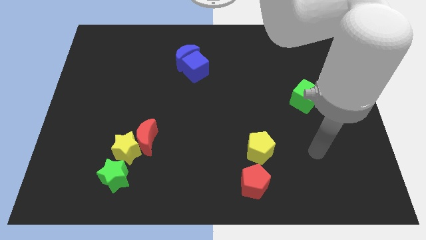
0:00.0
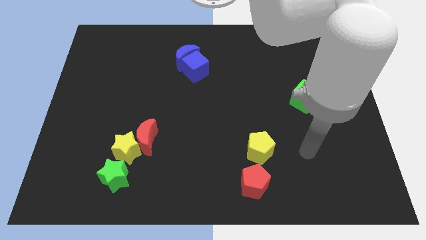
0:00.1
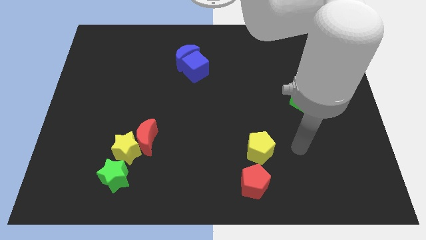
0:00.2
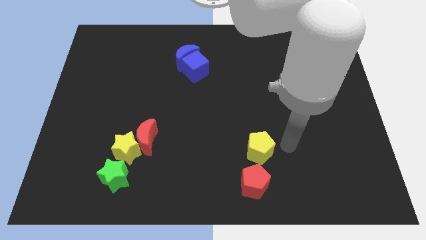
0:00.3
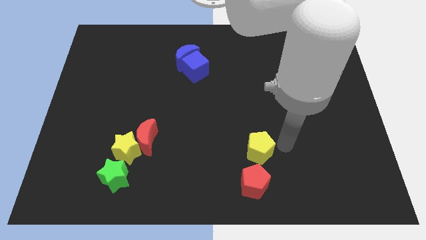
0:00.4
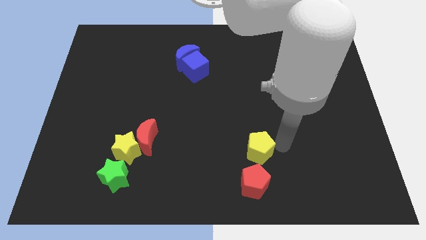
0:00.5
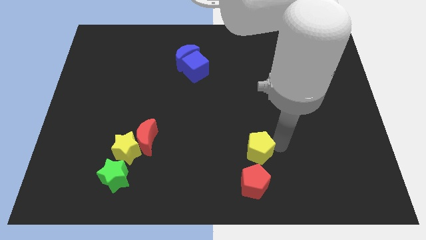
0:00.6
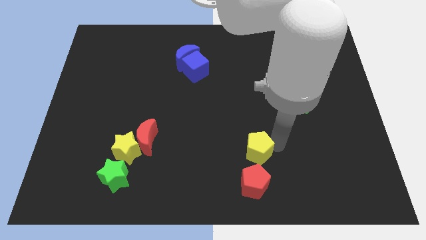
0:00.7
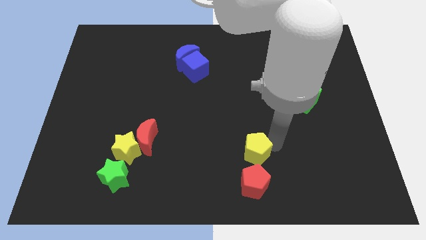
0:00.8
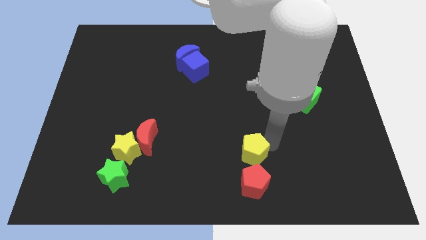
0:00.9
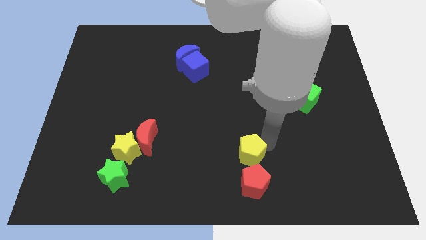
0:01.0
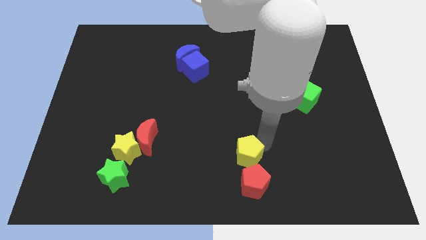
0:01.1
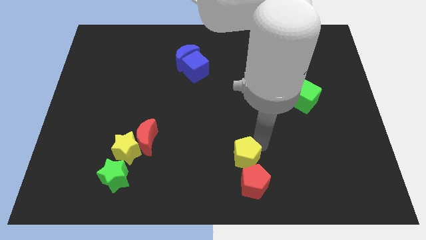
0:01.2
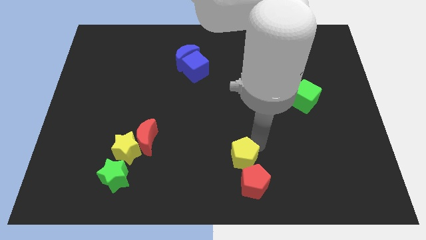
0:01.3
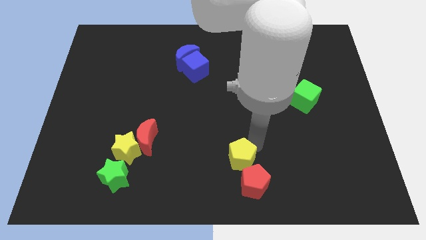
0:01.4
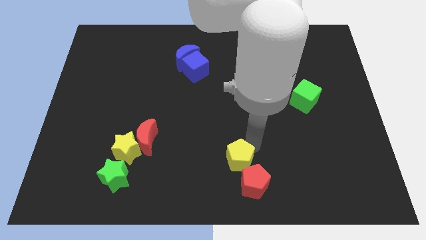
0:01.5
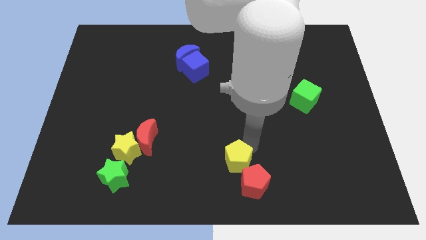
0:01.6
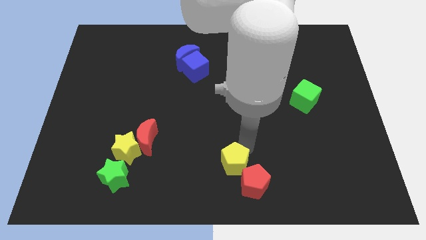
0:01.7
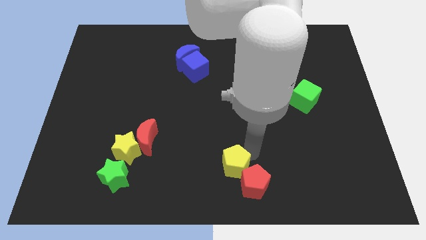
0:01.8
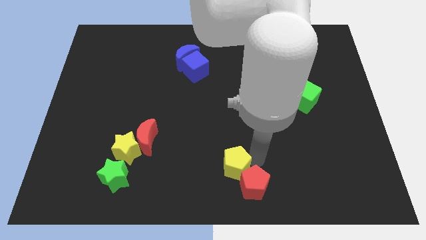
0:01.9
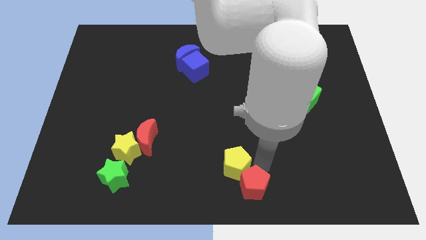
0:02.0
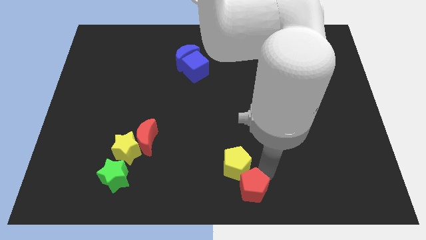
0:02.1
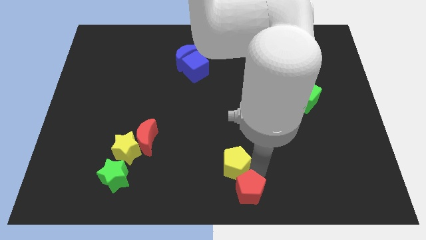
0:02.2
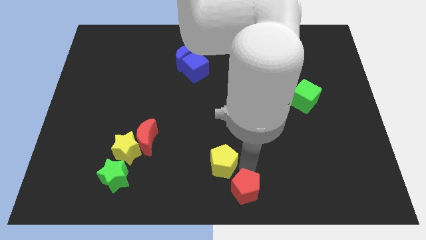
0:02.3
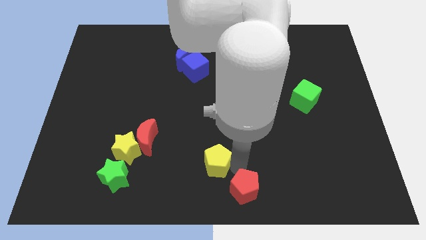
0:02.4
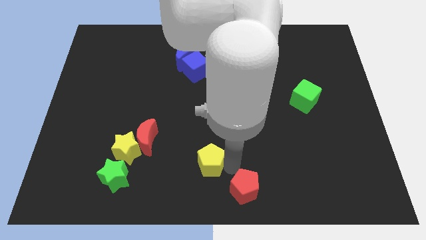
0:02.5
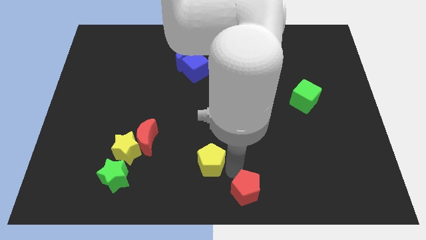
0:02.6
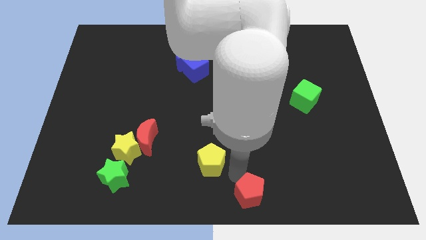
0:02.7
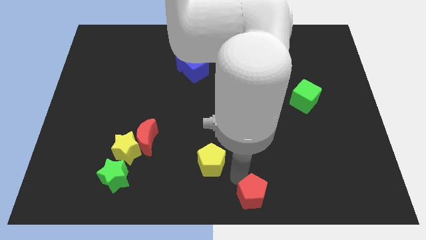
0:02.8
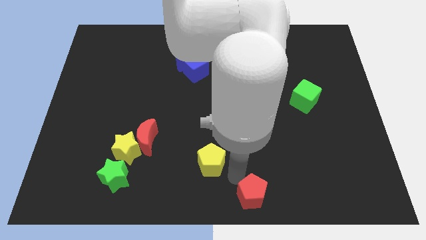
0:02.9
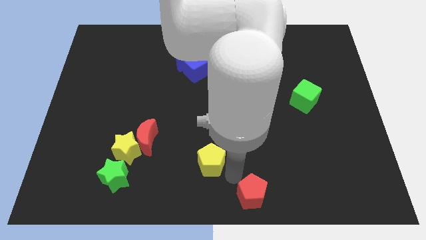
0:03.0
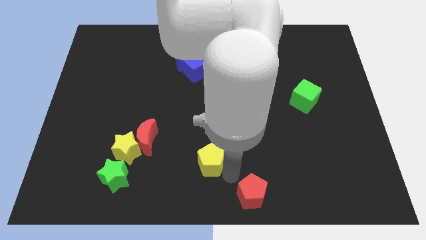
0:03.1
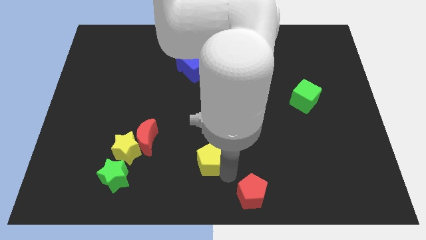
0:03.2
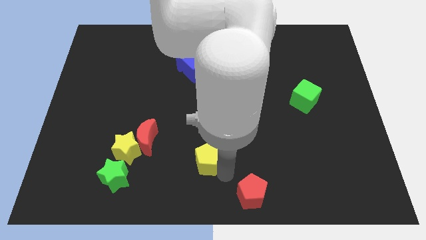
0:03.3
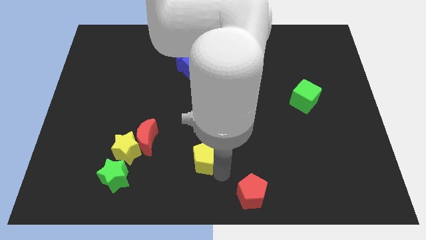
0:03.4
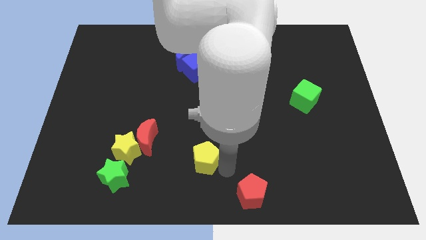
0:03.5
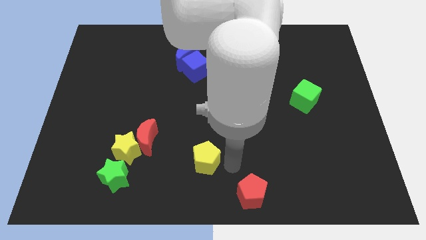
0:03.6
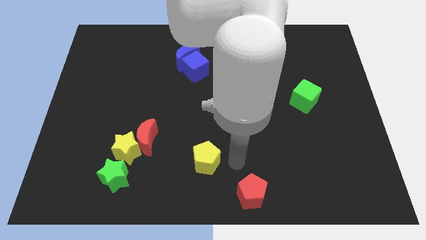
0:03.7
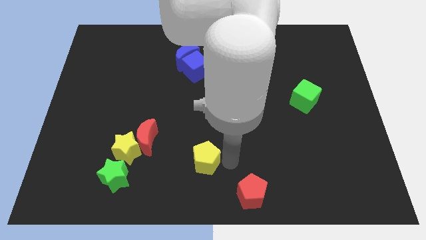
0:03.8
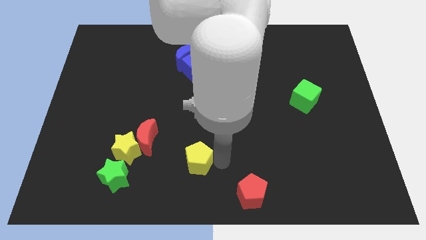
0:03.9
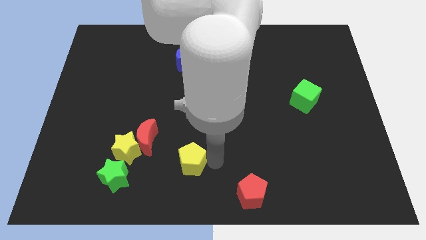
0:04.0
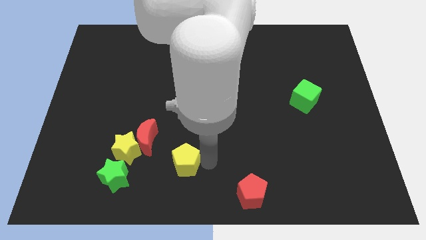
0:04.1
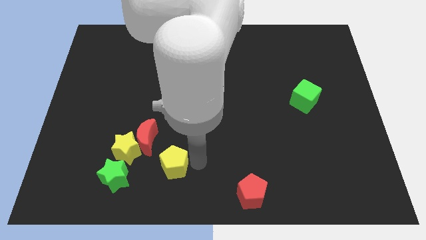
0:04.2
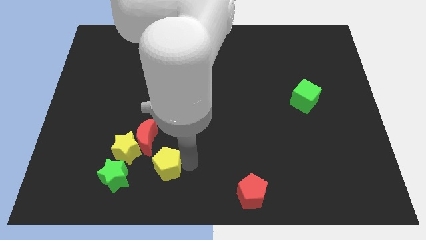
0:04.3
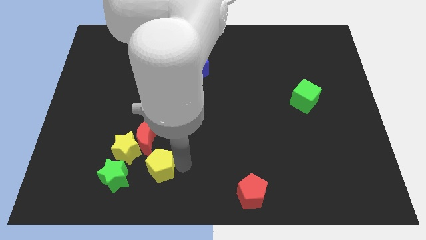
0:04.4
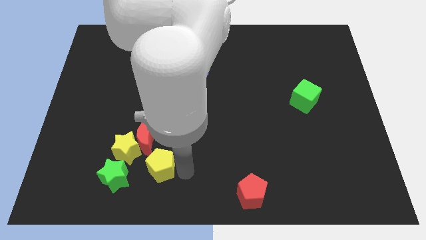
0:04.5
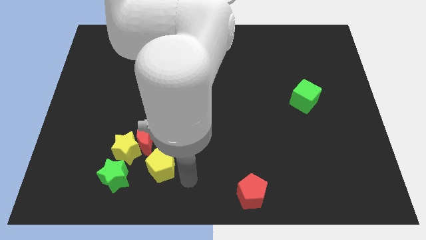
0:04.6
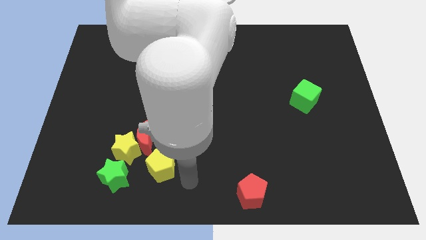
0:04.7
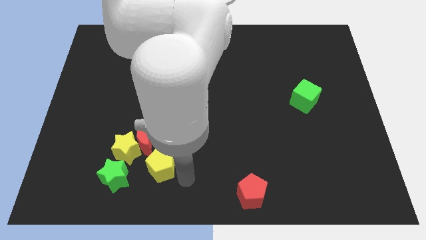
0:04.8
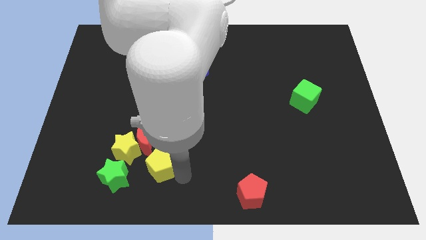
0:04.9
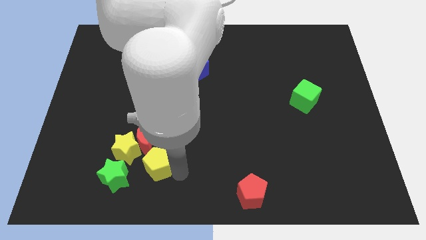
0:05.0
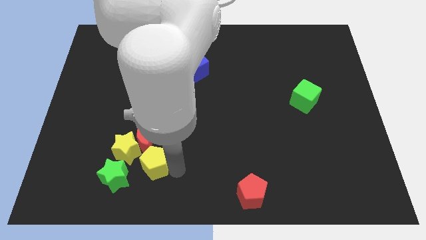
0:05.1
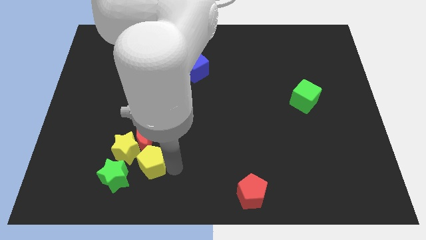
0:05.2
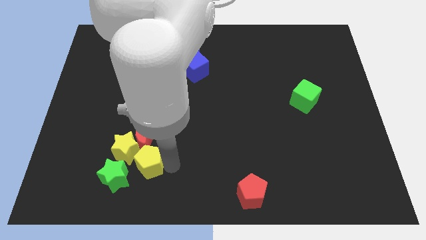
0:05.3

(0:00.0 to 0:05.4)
push the yellow pentagon to the yellow star

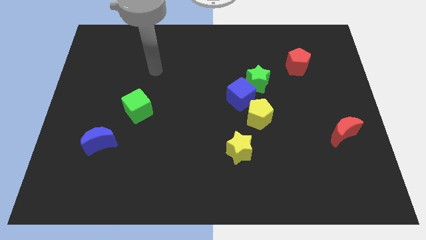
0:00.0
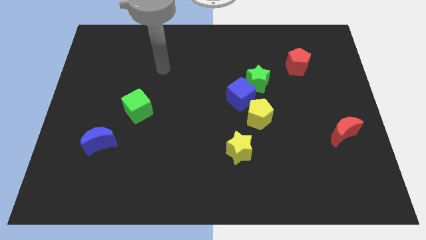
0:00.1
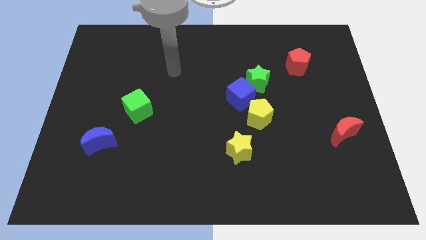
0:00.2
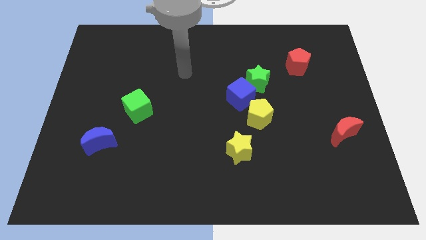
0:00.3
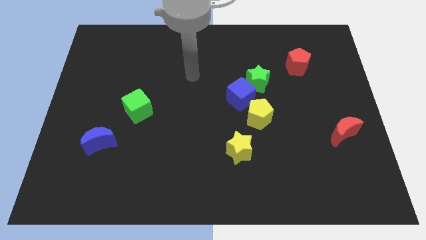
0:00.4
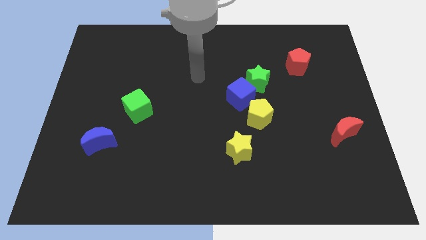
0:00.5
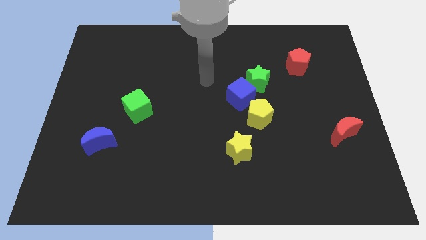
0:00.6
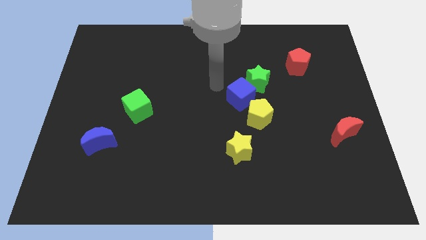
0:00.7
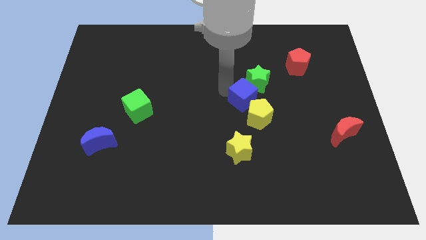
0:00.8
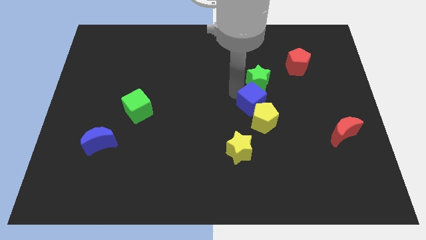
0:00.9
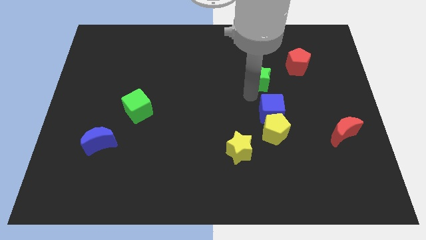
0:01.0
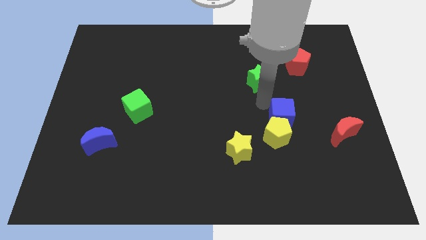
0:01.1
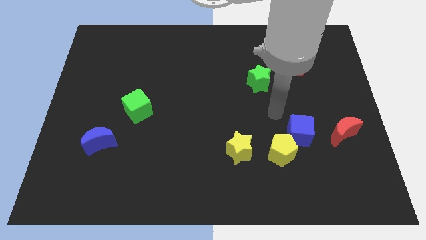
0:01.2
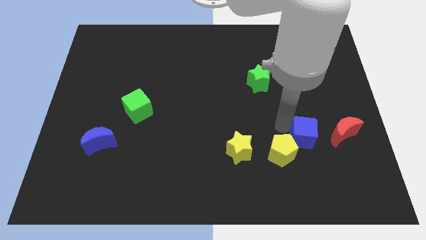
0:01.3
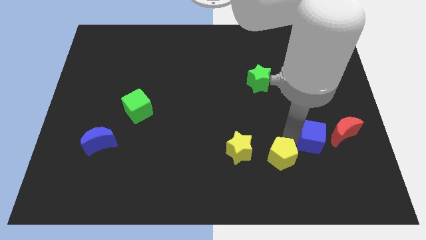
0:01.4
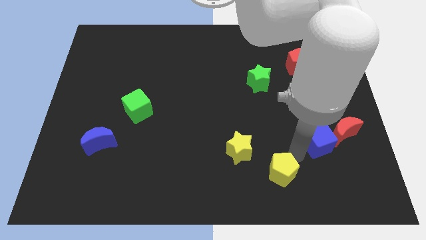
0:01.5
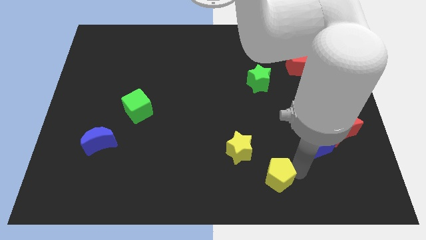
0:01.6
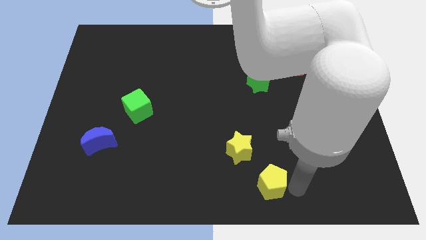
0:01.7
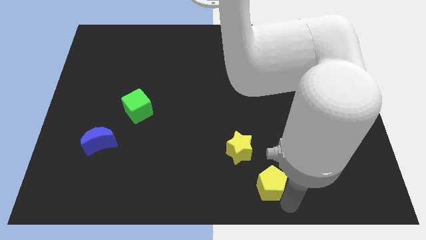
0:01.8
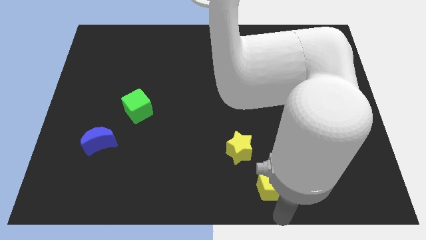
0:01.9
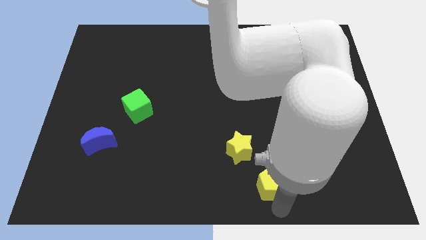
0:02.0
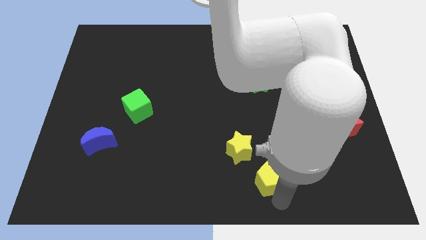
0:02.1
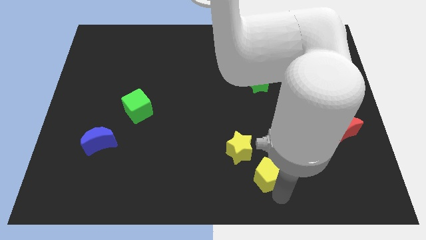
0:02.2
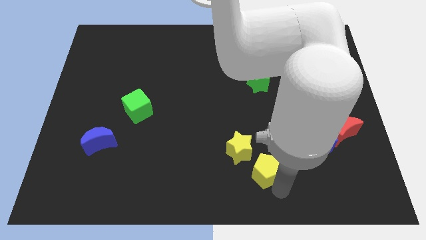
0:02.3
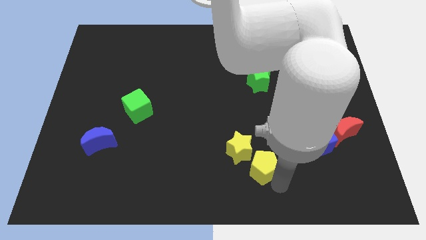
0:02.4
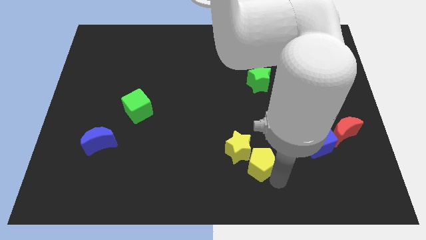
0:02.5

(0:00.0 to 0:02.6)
slide the yellow pentagon close to the yellow star
